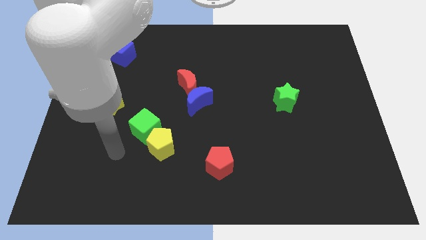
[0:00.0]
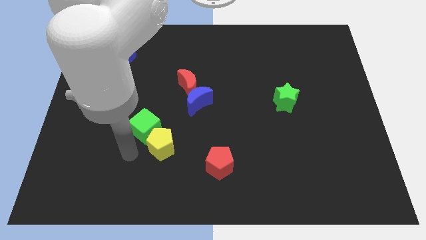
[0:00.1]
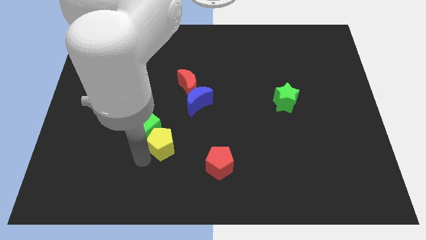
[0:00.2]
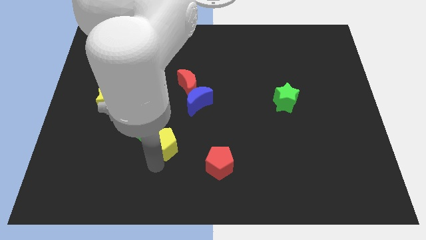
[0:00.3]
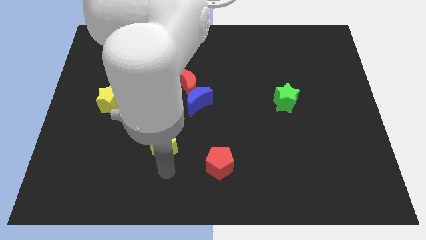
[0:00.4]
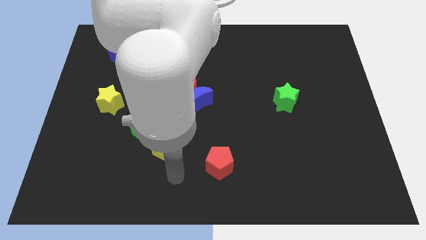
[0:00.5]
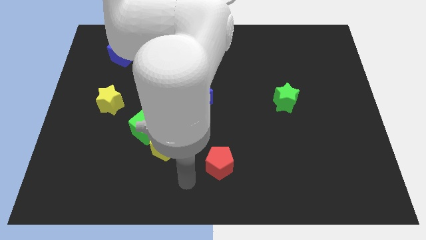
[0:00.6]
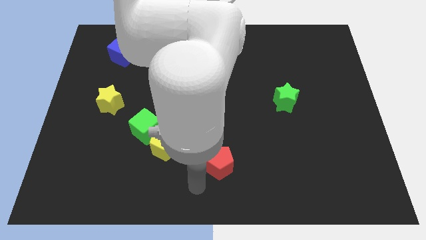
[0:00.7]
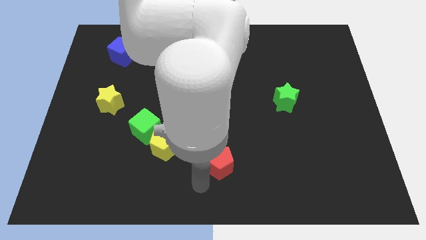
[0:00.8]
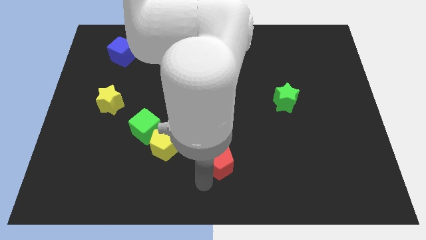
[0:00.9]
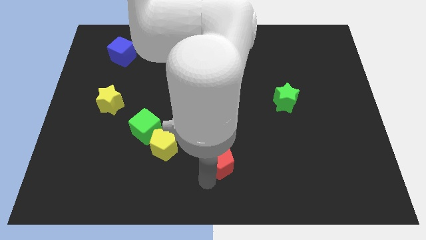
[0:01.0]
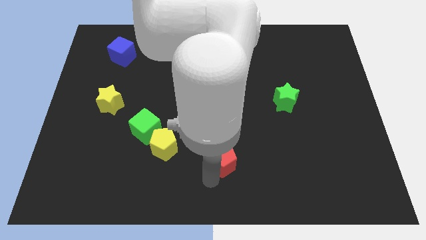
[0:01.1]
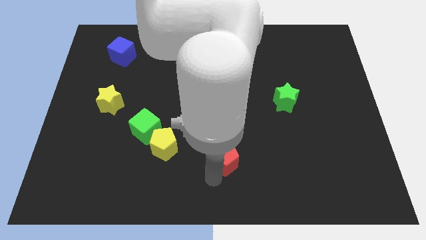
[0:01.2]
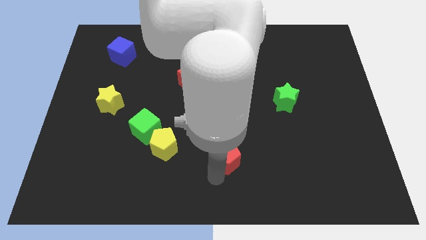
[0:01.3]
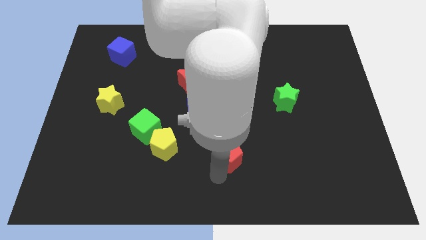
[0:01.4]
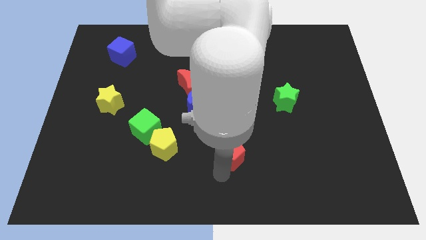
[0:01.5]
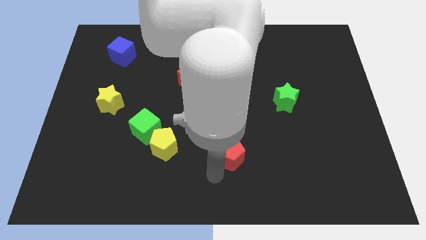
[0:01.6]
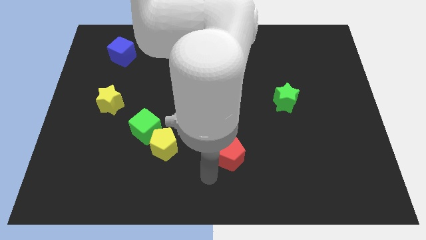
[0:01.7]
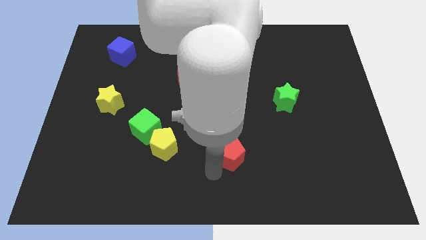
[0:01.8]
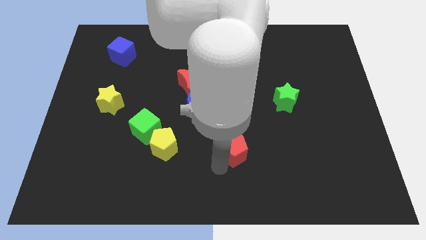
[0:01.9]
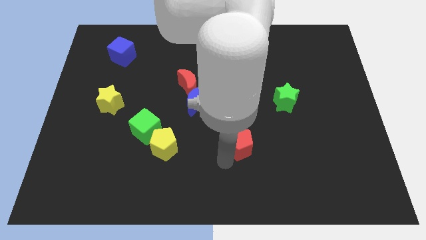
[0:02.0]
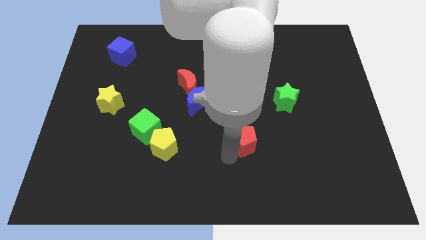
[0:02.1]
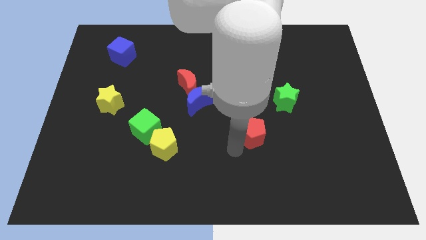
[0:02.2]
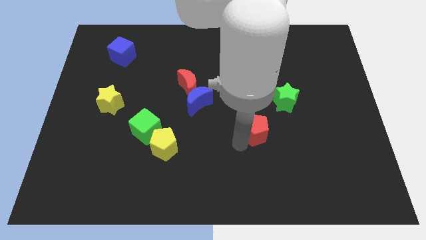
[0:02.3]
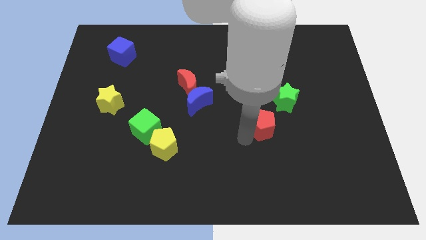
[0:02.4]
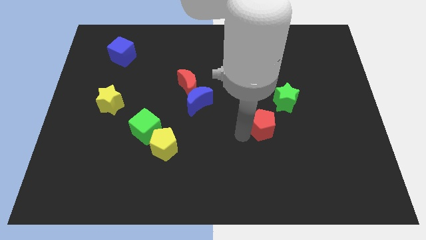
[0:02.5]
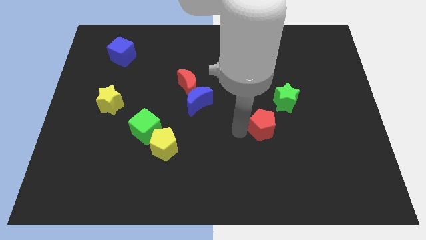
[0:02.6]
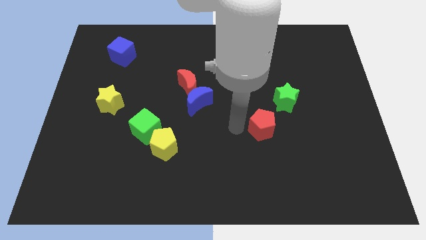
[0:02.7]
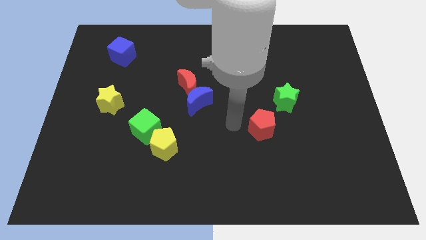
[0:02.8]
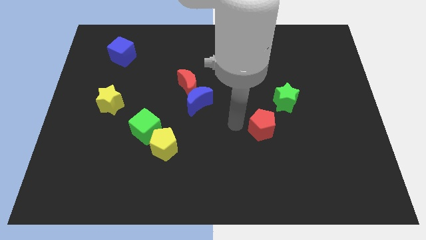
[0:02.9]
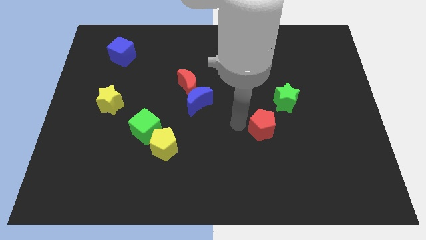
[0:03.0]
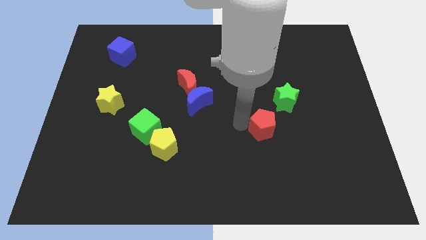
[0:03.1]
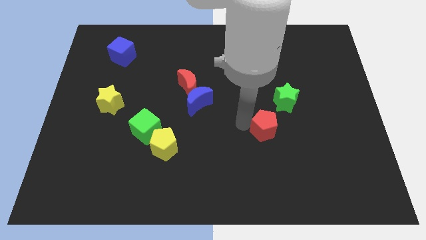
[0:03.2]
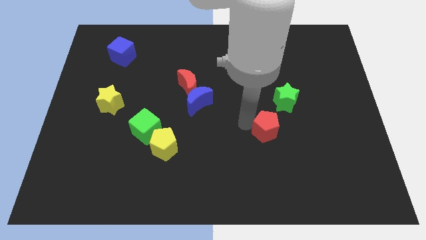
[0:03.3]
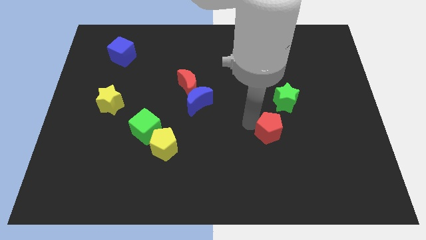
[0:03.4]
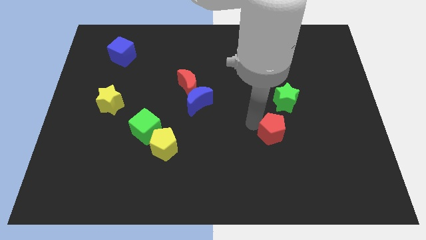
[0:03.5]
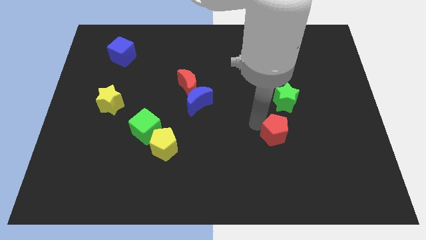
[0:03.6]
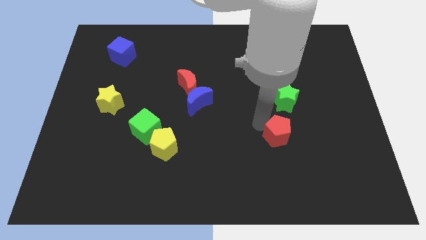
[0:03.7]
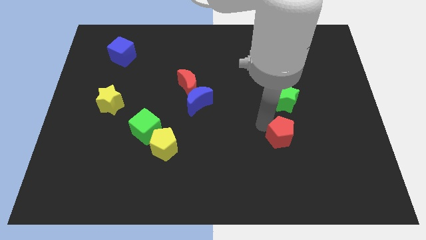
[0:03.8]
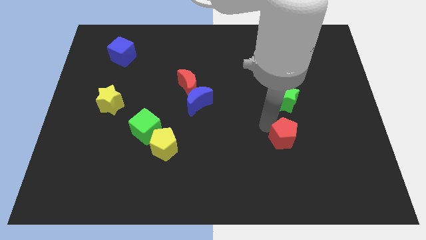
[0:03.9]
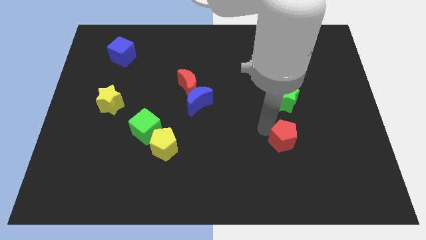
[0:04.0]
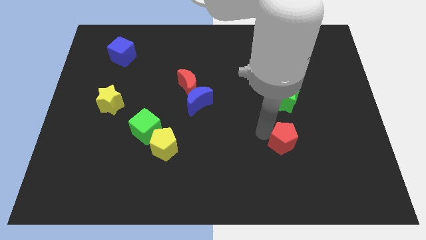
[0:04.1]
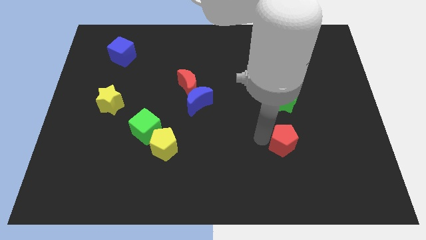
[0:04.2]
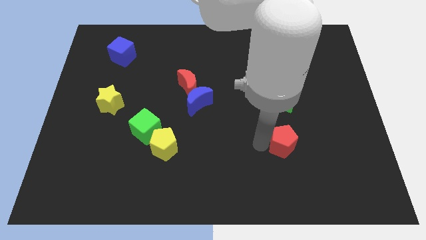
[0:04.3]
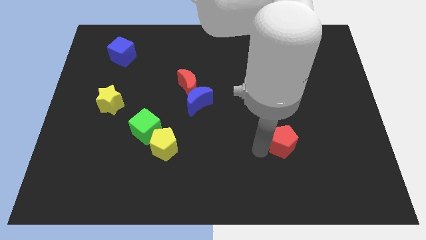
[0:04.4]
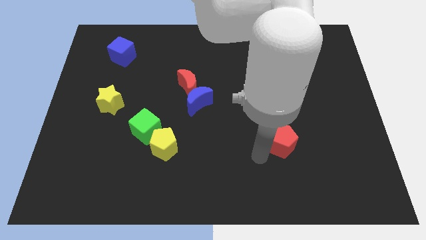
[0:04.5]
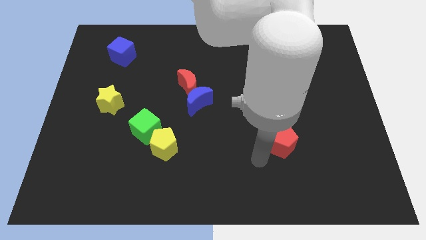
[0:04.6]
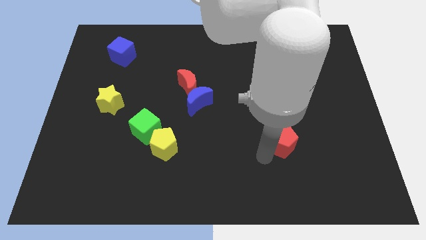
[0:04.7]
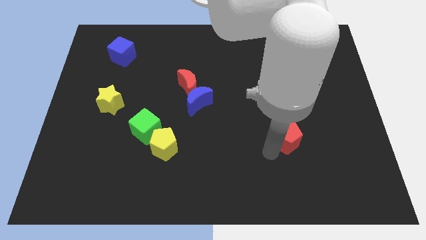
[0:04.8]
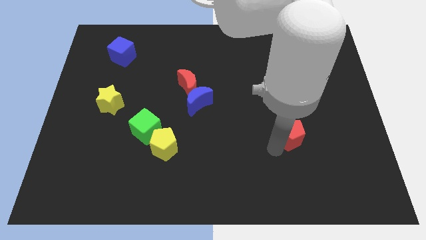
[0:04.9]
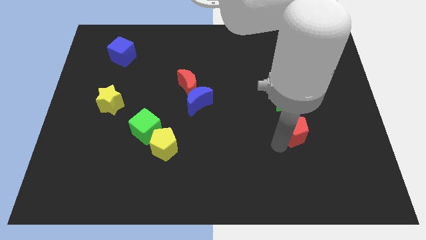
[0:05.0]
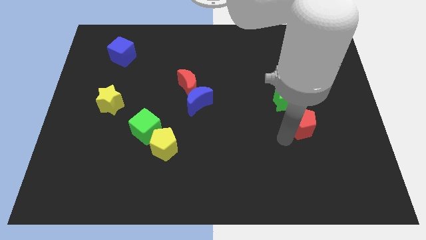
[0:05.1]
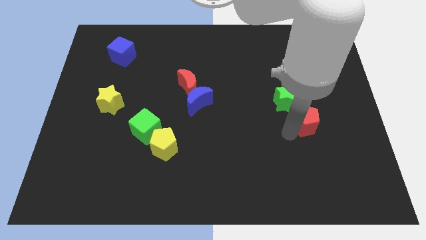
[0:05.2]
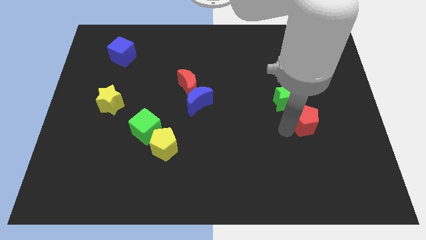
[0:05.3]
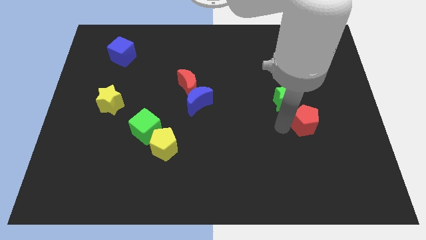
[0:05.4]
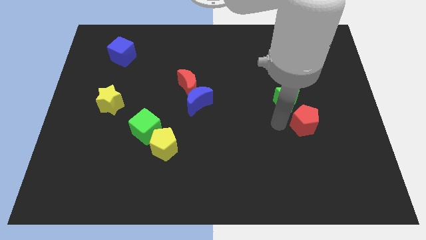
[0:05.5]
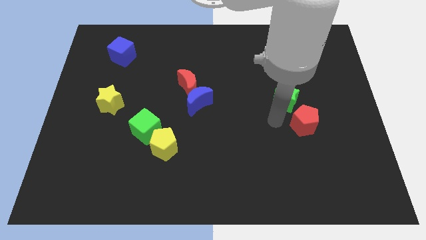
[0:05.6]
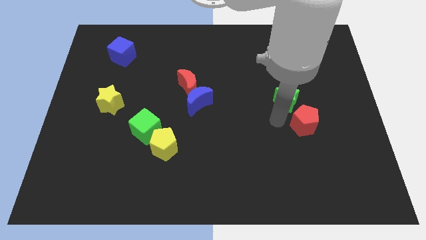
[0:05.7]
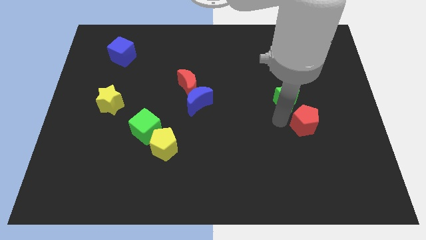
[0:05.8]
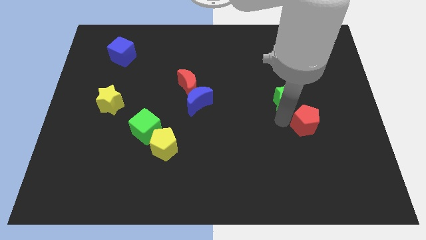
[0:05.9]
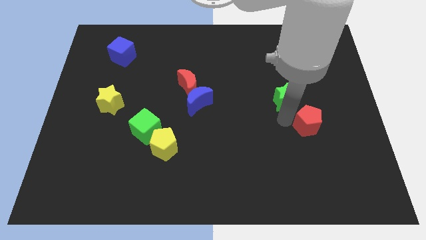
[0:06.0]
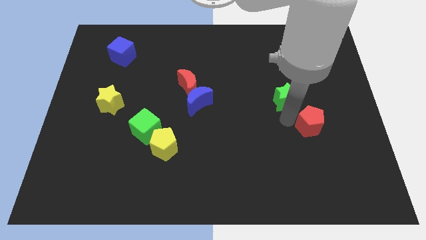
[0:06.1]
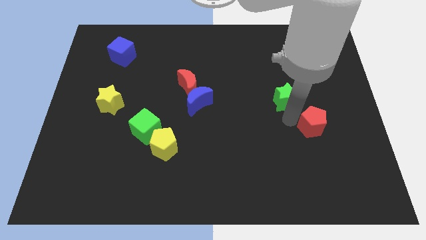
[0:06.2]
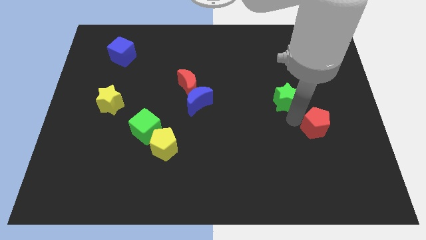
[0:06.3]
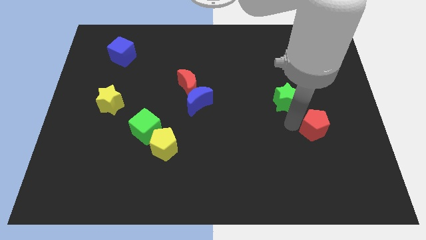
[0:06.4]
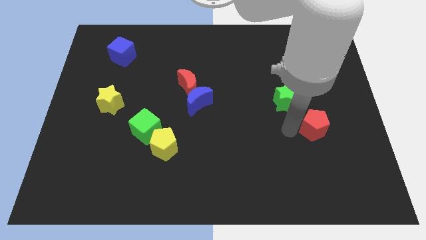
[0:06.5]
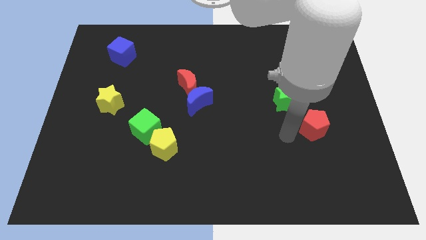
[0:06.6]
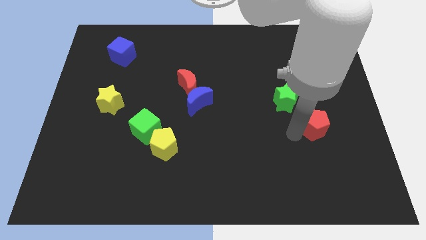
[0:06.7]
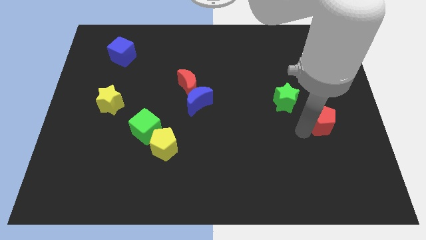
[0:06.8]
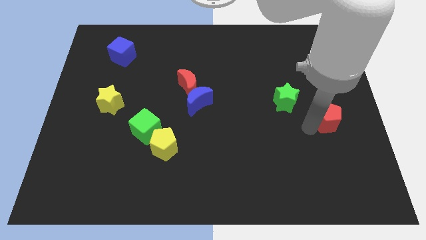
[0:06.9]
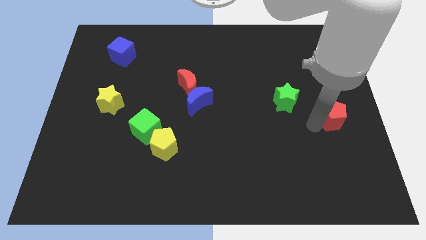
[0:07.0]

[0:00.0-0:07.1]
slide the red pentagon to the right side of the board
